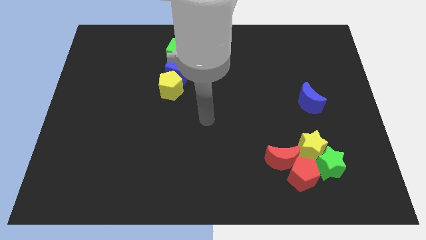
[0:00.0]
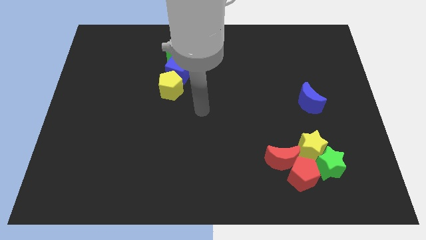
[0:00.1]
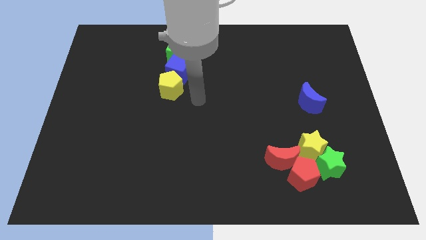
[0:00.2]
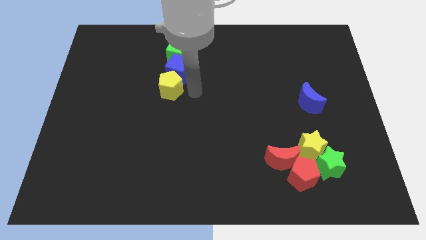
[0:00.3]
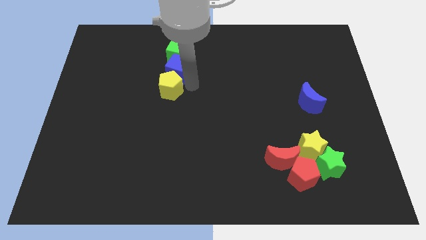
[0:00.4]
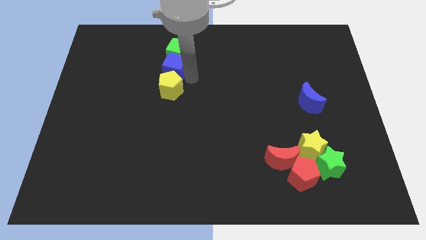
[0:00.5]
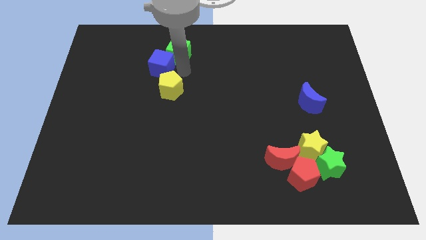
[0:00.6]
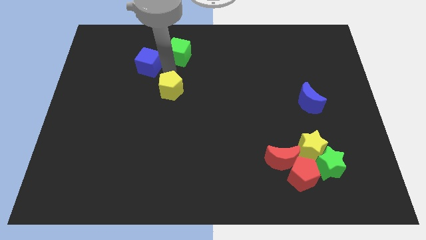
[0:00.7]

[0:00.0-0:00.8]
separate the yellow pentagon from the blue cube

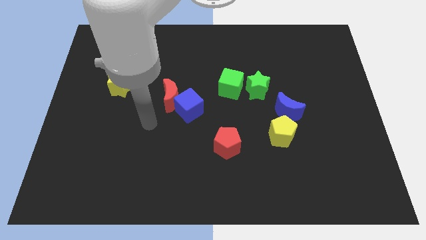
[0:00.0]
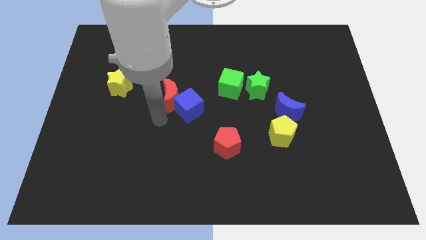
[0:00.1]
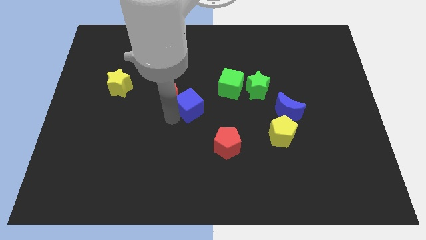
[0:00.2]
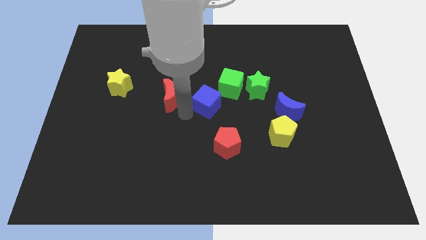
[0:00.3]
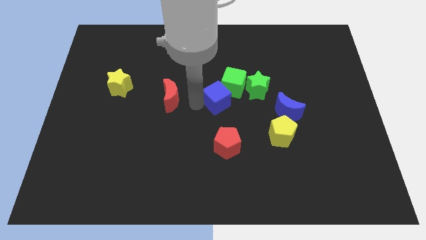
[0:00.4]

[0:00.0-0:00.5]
pull the red moon apart from the blue cube

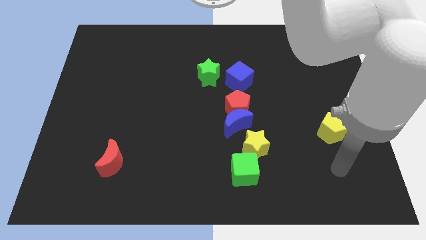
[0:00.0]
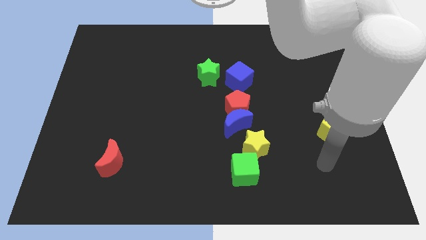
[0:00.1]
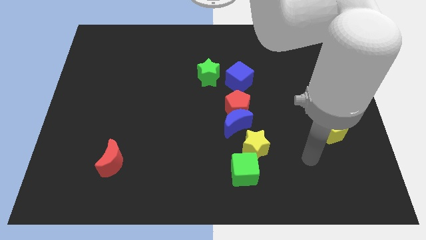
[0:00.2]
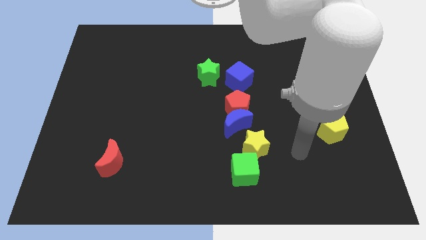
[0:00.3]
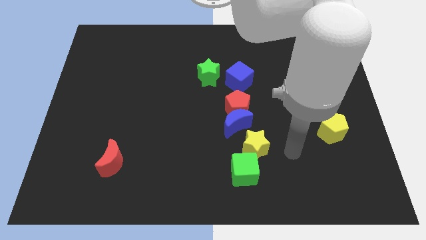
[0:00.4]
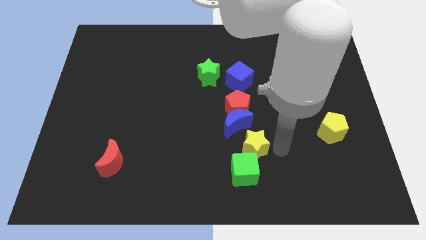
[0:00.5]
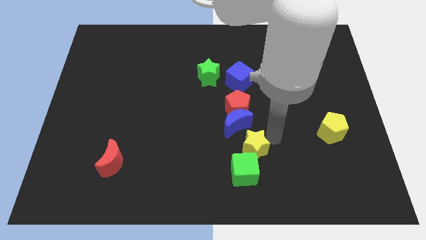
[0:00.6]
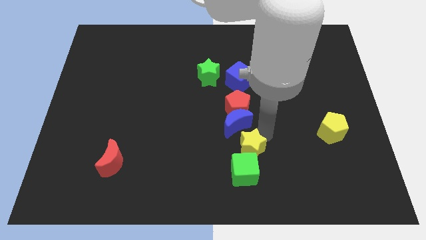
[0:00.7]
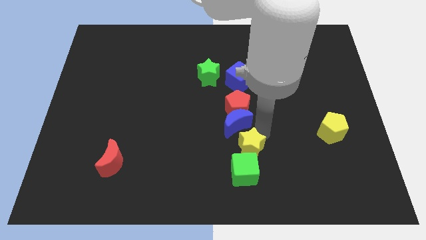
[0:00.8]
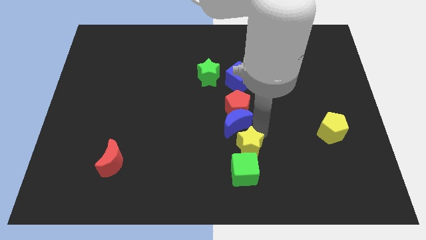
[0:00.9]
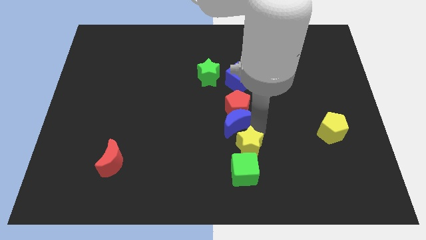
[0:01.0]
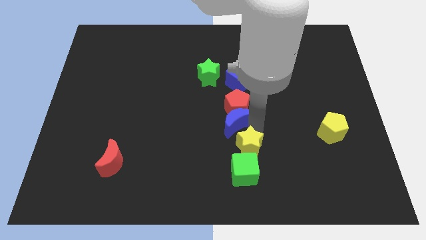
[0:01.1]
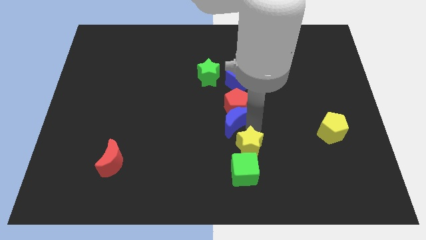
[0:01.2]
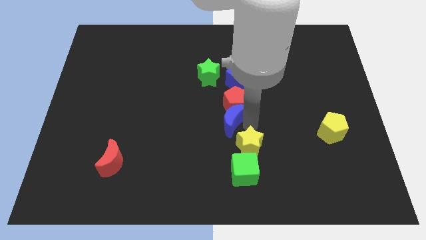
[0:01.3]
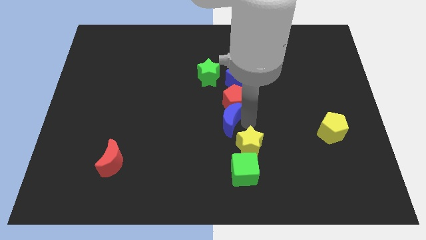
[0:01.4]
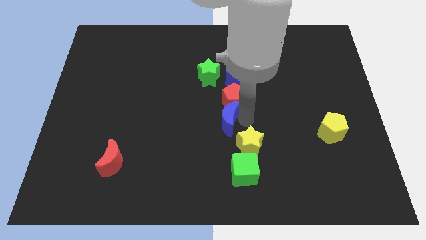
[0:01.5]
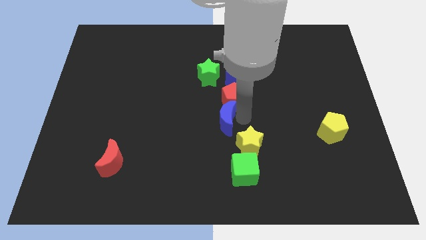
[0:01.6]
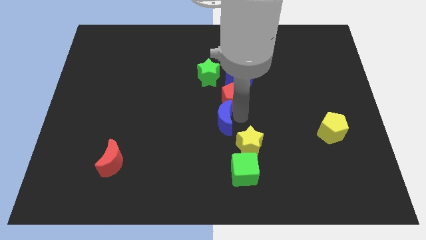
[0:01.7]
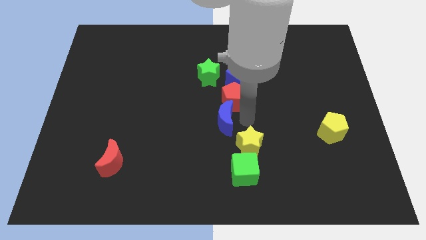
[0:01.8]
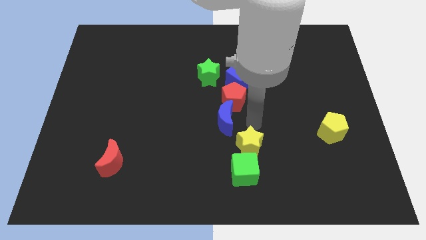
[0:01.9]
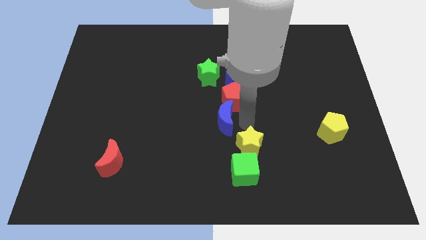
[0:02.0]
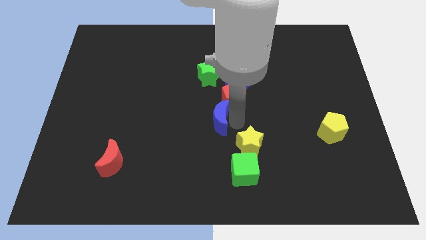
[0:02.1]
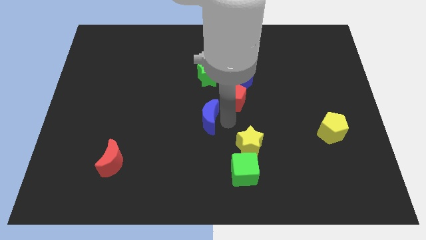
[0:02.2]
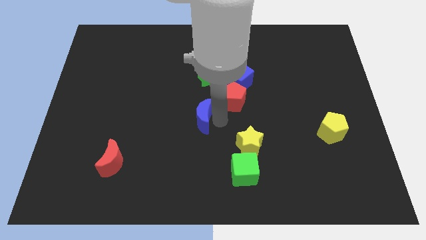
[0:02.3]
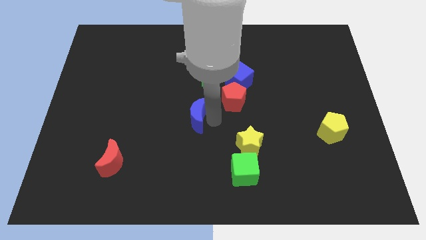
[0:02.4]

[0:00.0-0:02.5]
separate the blue moon from the red pentagon and yellow star

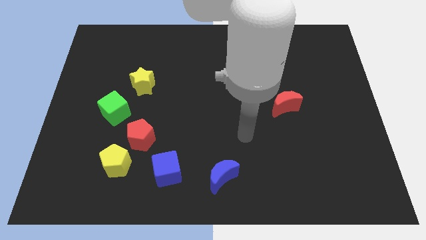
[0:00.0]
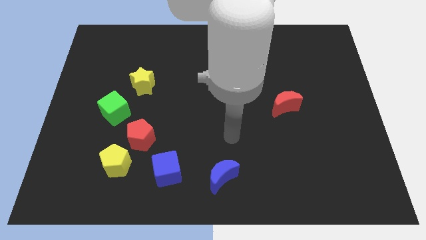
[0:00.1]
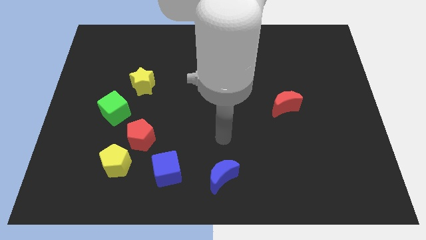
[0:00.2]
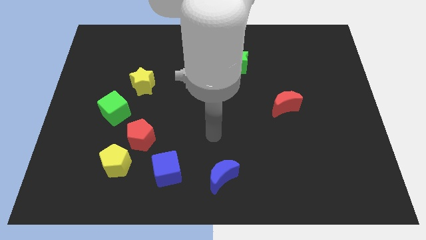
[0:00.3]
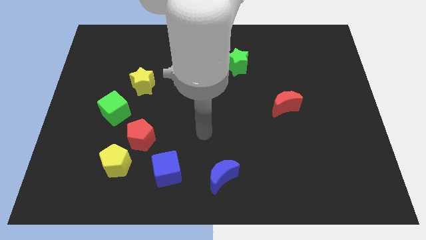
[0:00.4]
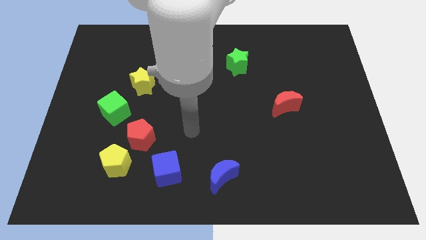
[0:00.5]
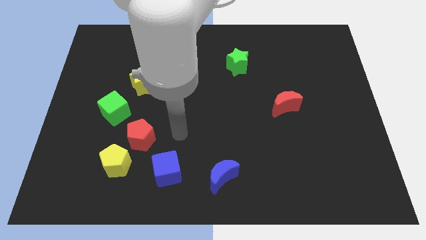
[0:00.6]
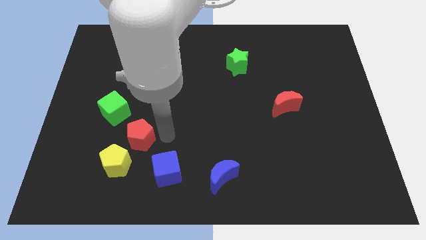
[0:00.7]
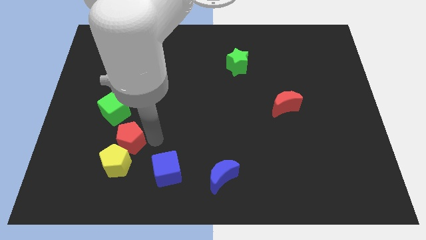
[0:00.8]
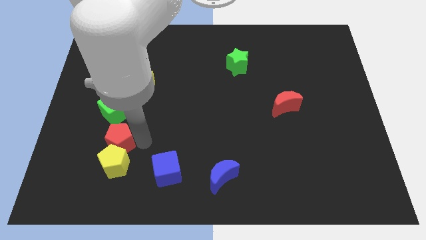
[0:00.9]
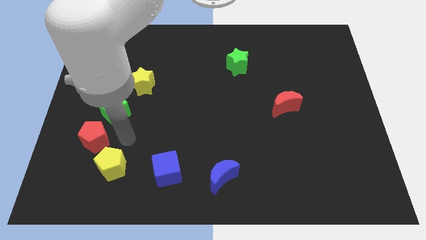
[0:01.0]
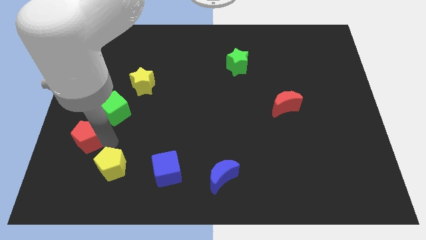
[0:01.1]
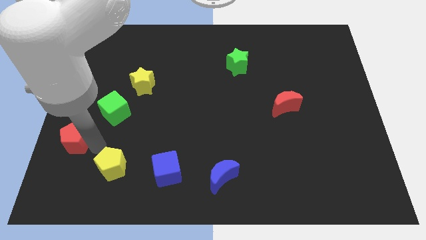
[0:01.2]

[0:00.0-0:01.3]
move the yellow pentagon away from the red pentagon

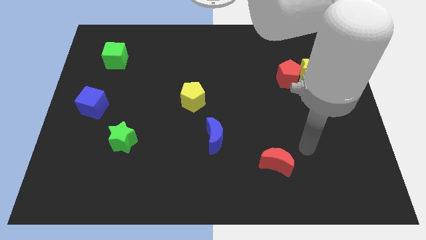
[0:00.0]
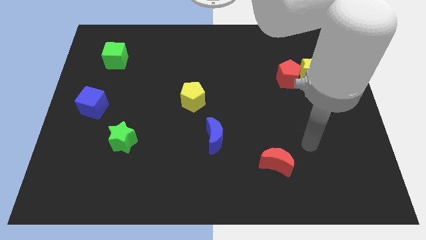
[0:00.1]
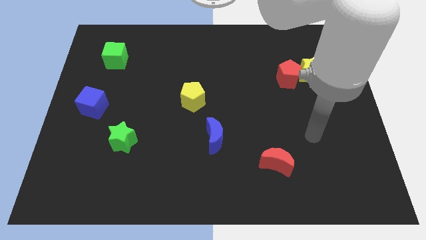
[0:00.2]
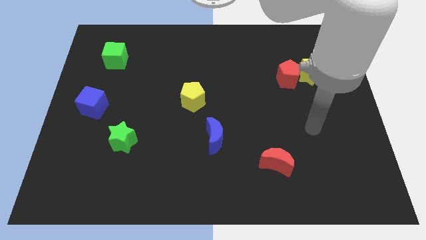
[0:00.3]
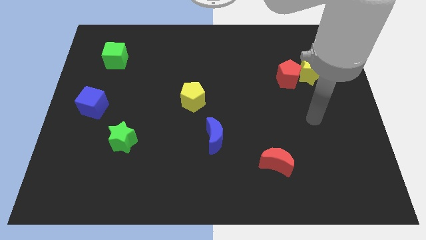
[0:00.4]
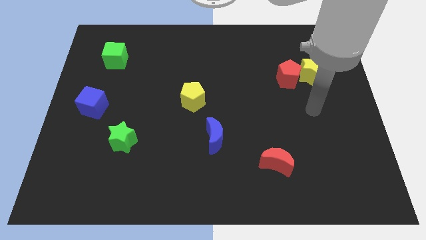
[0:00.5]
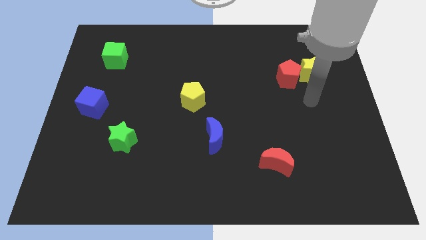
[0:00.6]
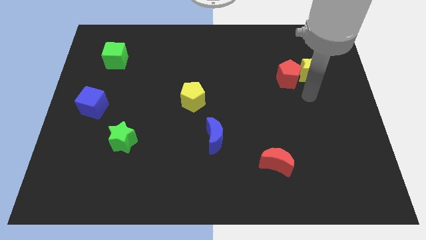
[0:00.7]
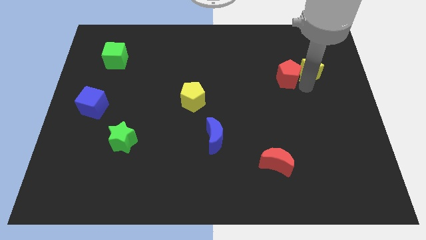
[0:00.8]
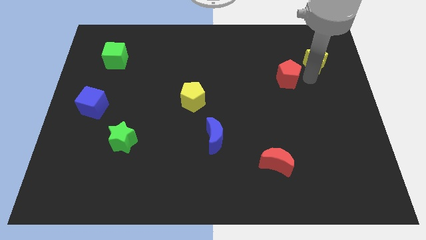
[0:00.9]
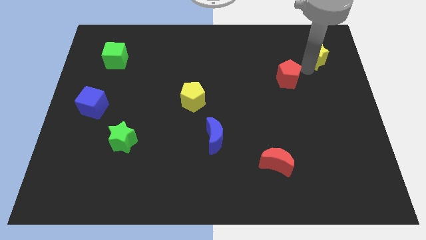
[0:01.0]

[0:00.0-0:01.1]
move the red pentagon away from the yellow star

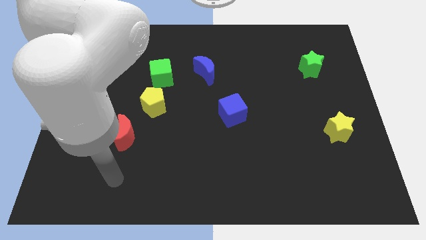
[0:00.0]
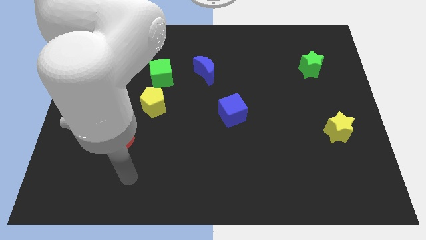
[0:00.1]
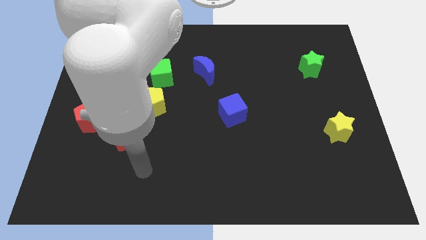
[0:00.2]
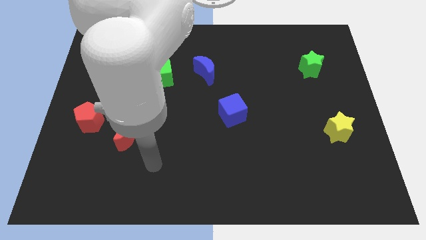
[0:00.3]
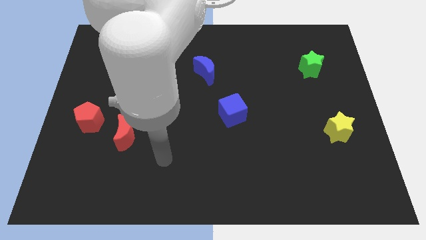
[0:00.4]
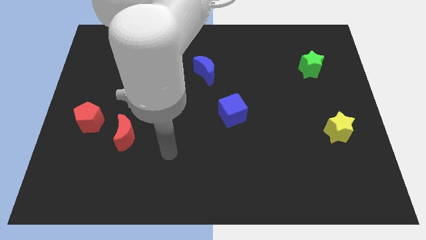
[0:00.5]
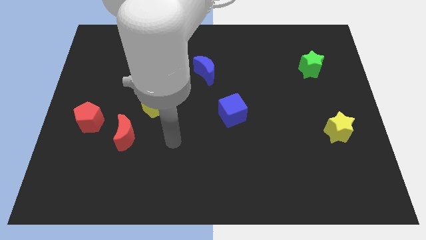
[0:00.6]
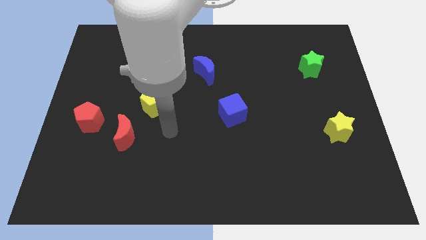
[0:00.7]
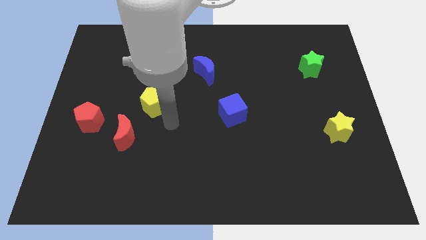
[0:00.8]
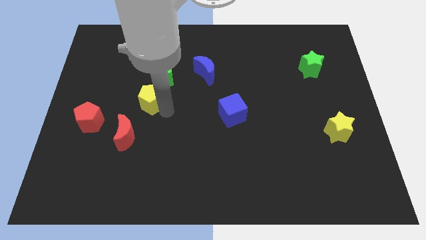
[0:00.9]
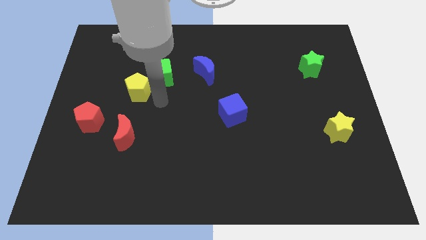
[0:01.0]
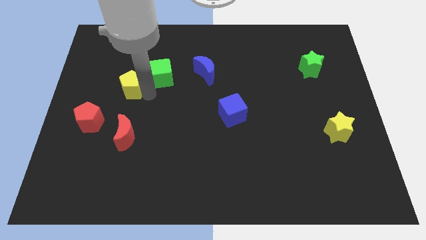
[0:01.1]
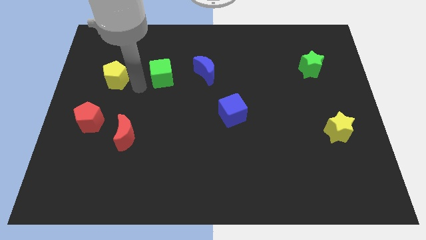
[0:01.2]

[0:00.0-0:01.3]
pull the green cube apart from the yellow pentagon

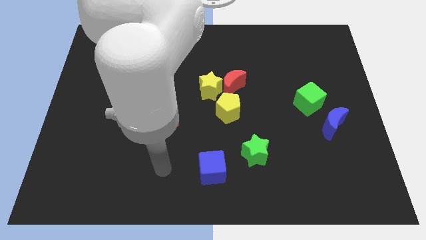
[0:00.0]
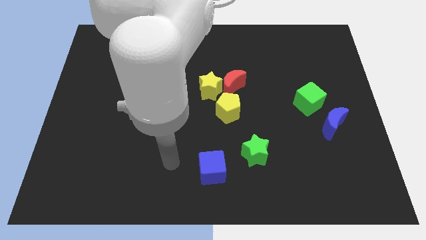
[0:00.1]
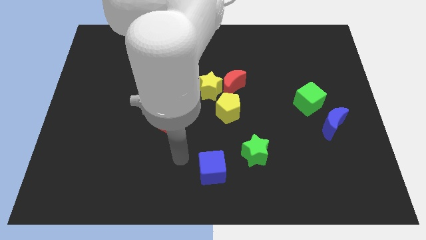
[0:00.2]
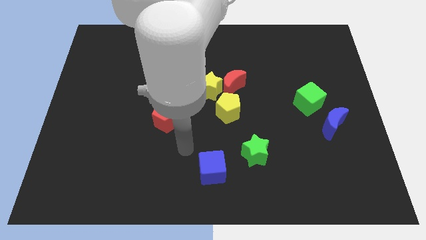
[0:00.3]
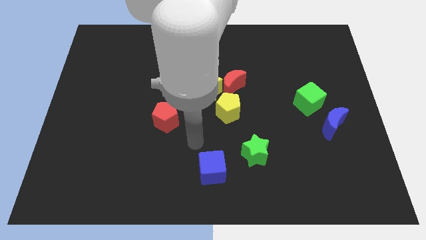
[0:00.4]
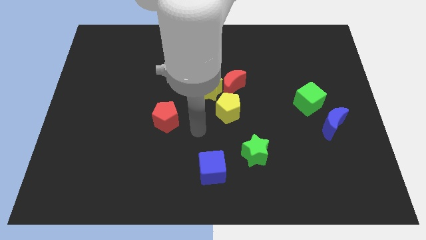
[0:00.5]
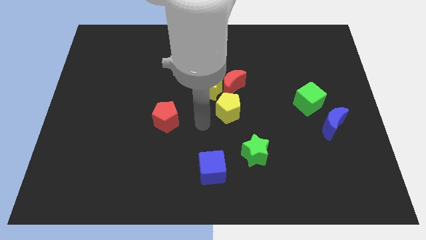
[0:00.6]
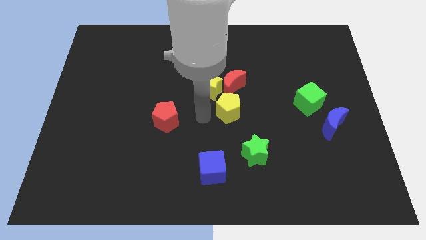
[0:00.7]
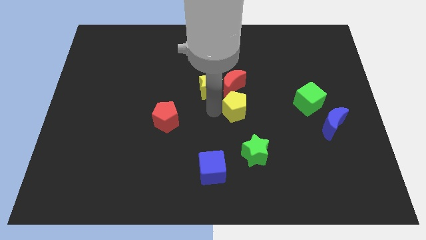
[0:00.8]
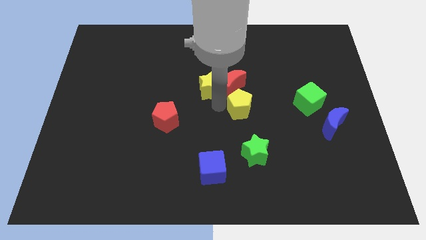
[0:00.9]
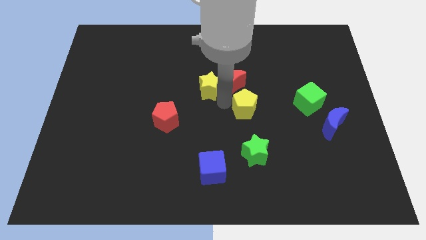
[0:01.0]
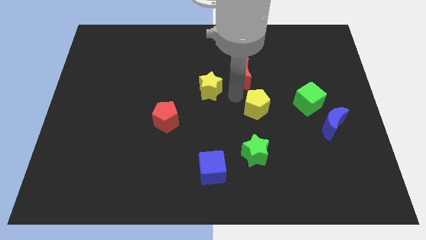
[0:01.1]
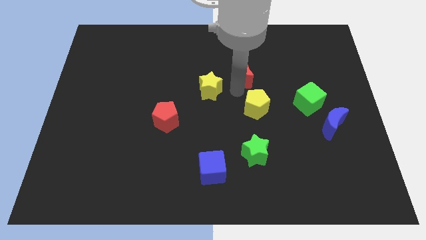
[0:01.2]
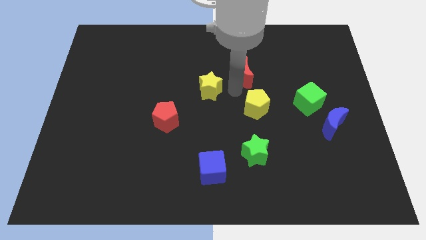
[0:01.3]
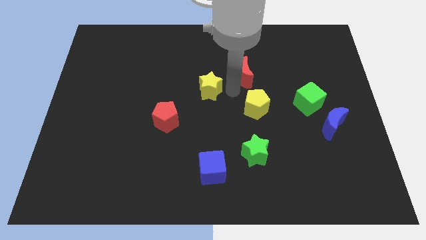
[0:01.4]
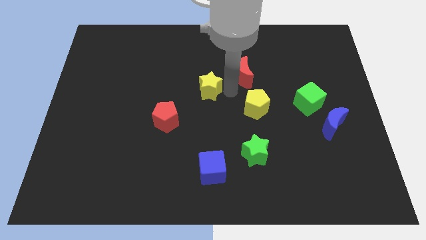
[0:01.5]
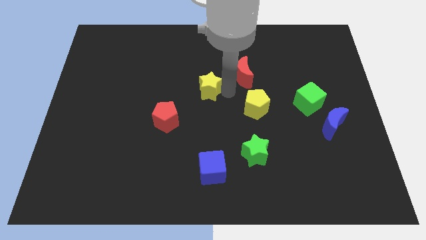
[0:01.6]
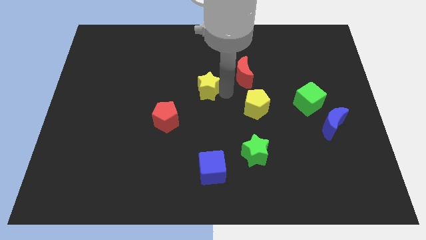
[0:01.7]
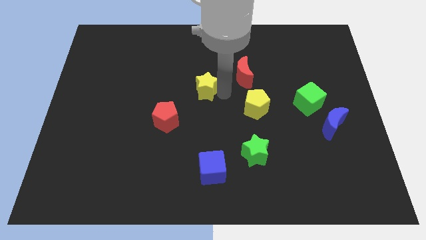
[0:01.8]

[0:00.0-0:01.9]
separate the yellow star from the red moon and yellow pentagon
